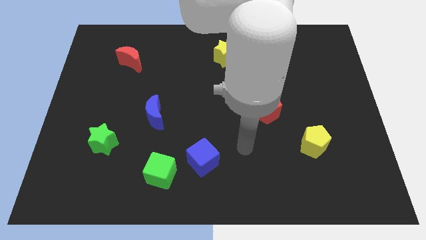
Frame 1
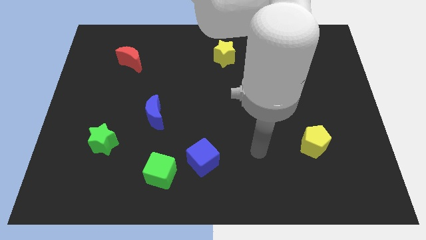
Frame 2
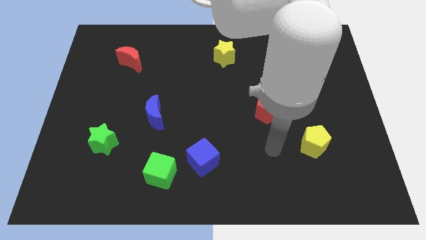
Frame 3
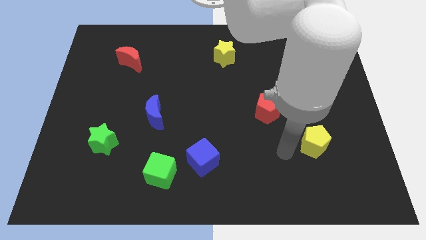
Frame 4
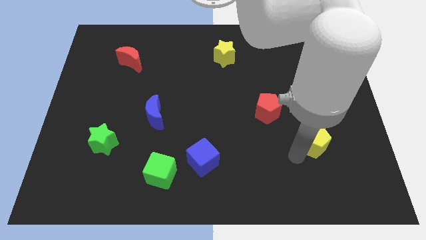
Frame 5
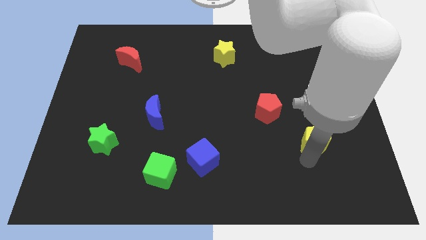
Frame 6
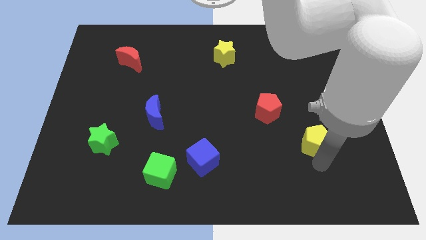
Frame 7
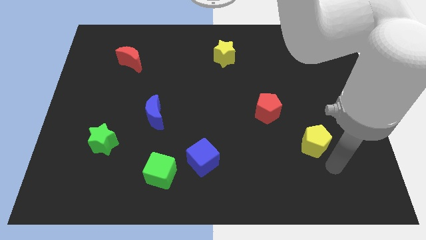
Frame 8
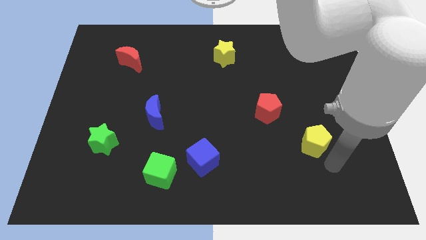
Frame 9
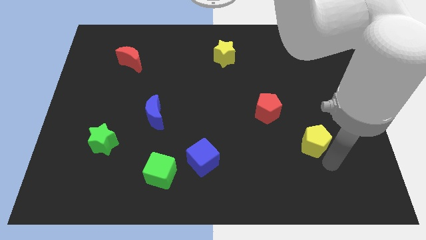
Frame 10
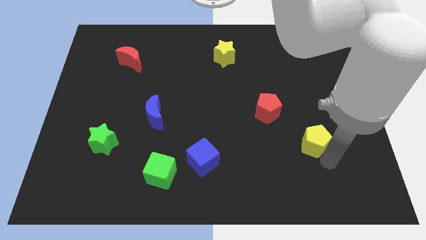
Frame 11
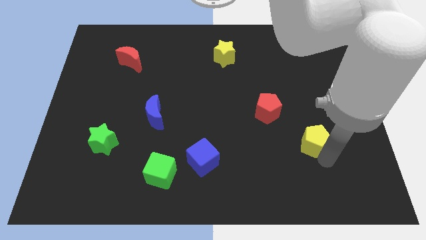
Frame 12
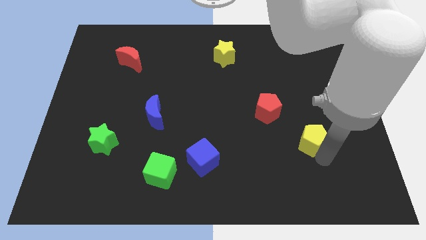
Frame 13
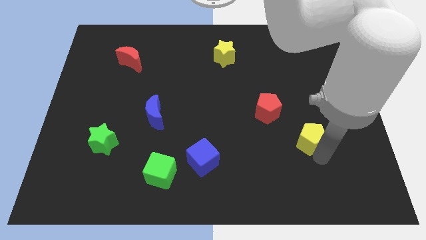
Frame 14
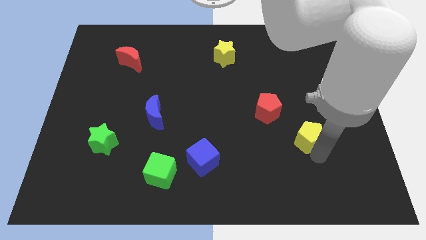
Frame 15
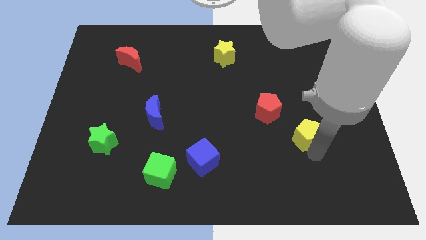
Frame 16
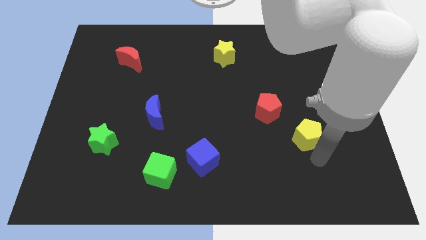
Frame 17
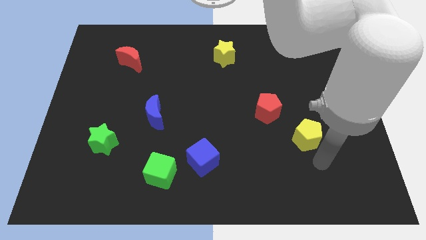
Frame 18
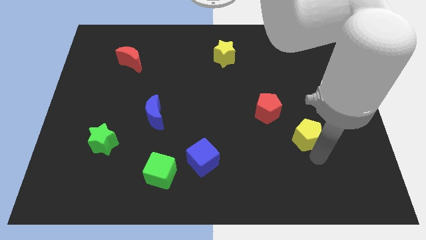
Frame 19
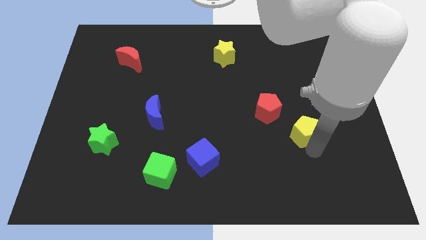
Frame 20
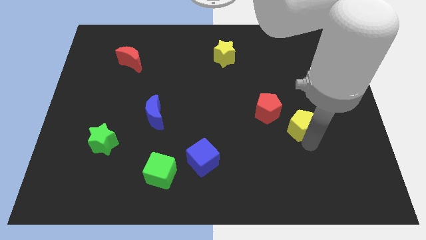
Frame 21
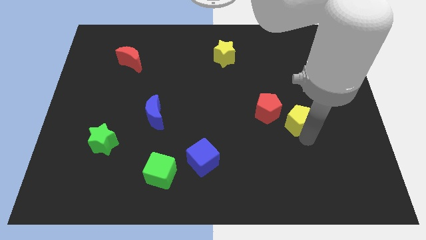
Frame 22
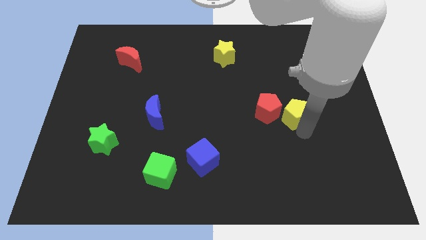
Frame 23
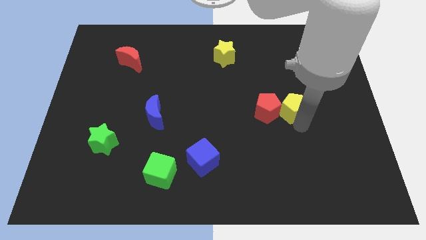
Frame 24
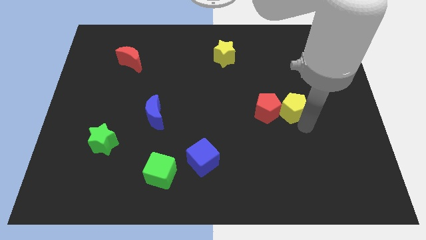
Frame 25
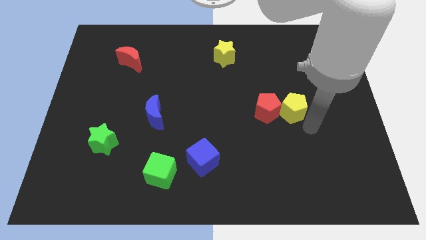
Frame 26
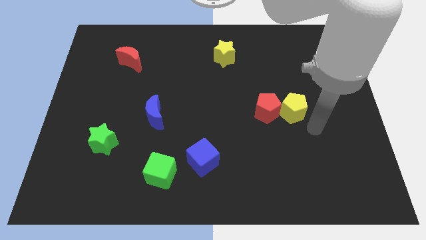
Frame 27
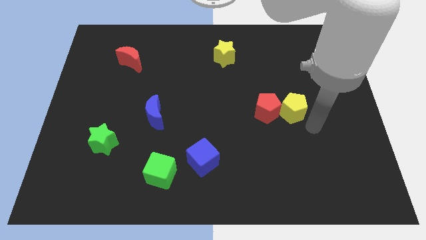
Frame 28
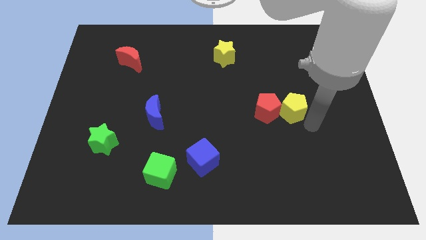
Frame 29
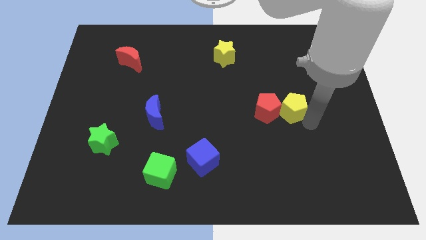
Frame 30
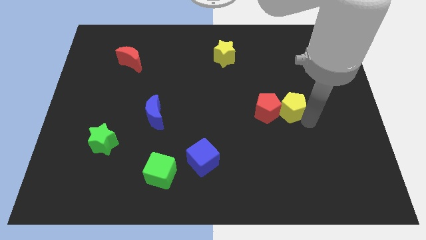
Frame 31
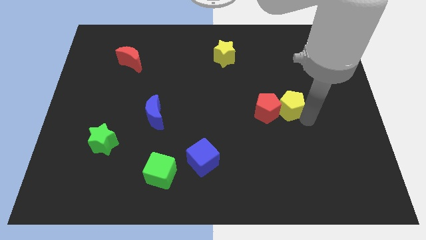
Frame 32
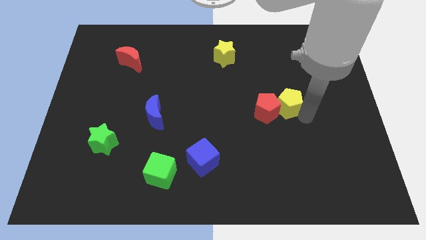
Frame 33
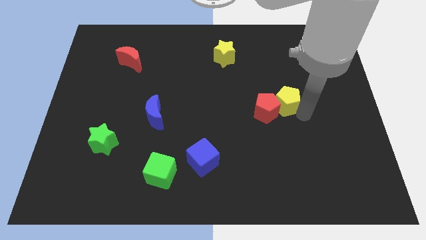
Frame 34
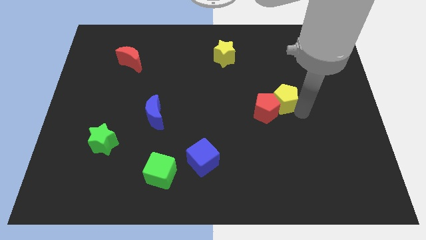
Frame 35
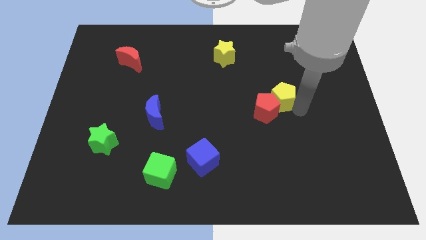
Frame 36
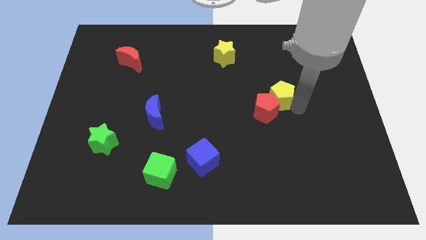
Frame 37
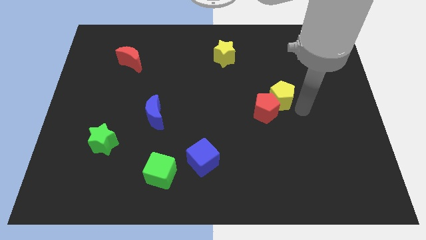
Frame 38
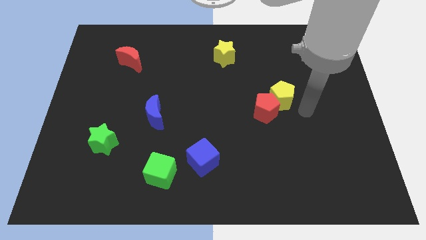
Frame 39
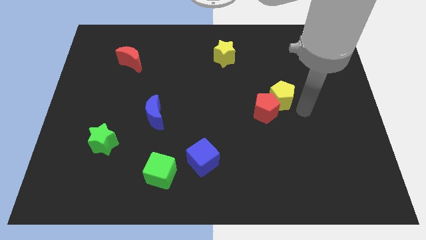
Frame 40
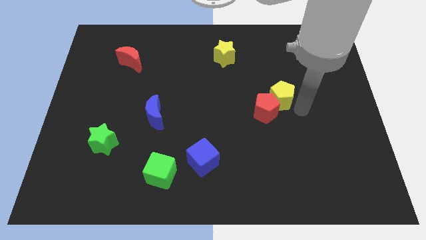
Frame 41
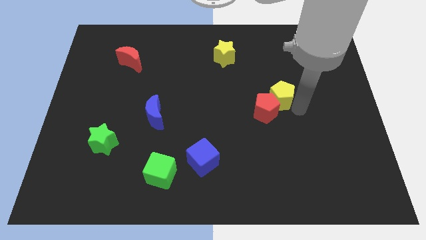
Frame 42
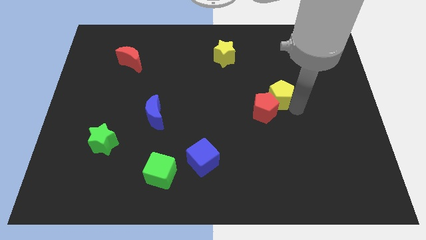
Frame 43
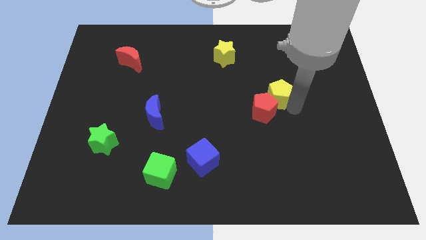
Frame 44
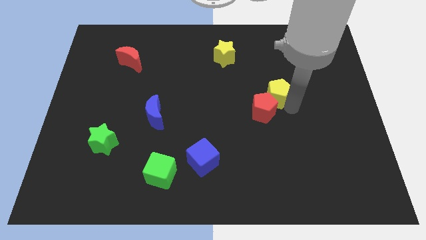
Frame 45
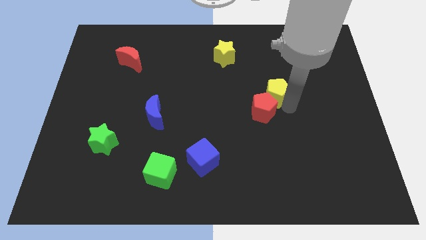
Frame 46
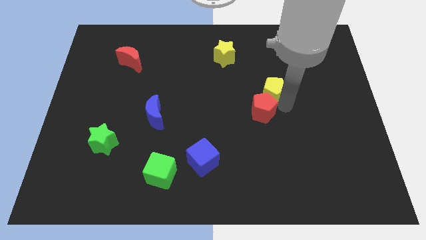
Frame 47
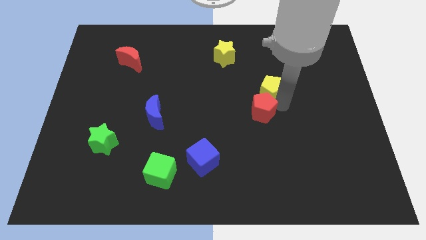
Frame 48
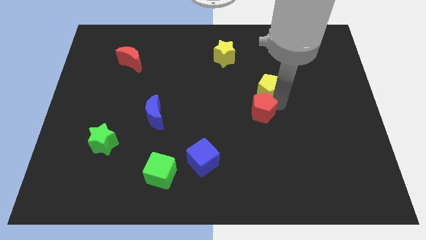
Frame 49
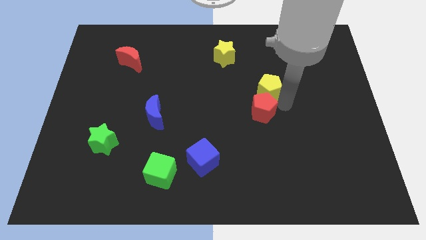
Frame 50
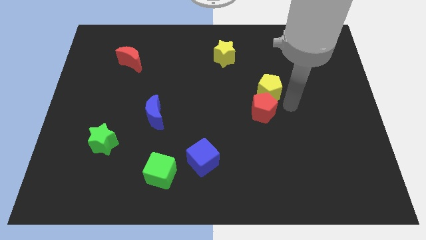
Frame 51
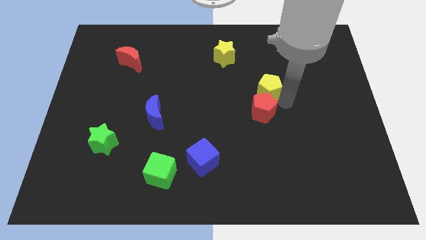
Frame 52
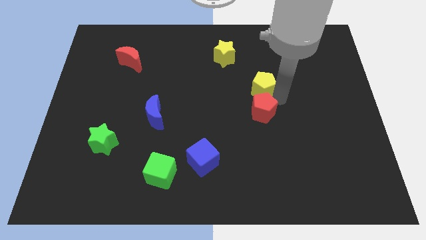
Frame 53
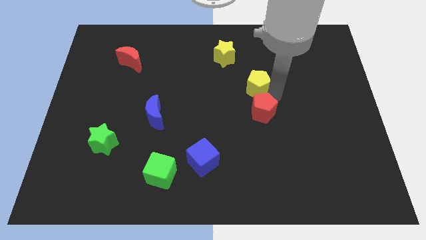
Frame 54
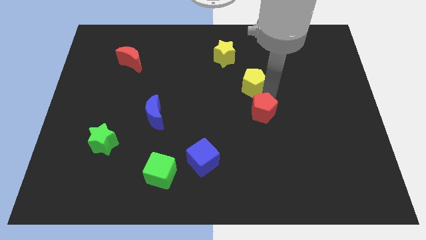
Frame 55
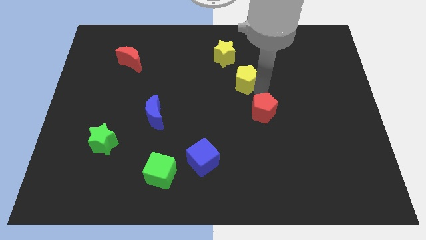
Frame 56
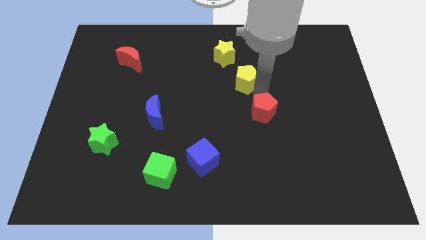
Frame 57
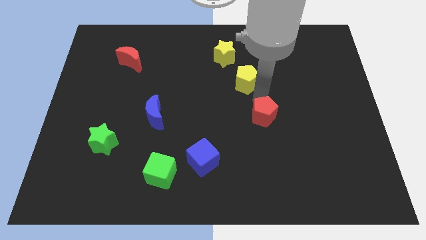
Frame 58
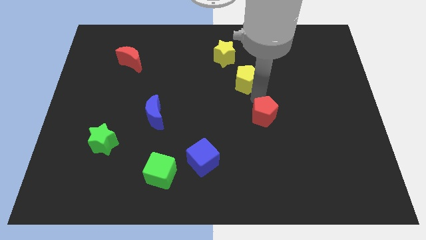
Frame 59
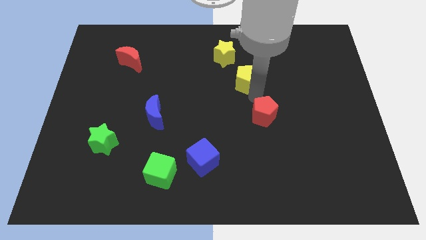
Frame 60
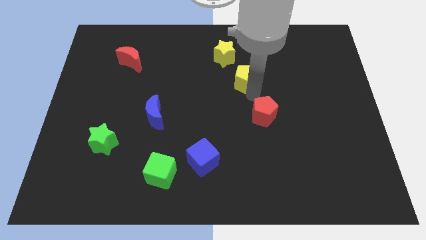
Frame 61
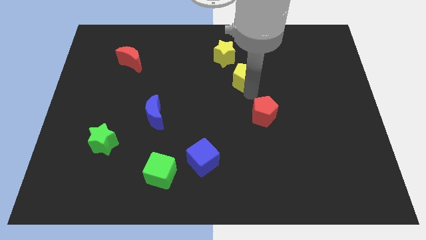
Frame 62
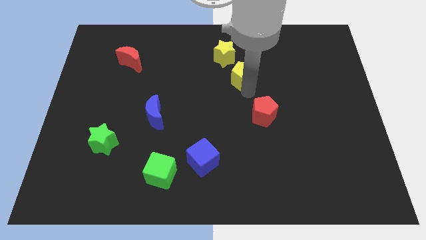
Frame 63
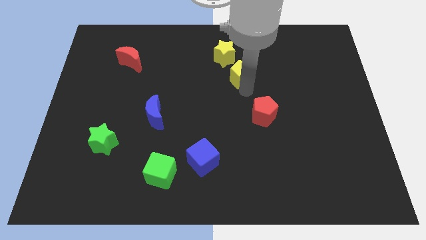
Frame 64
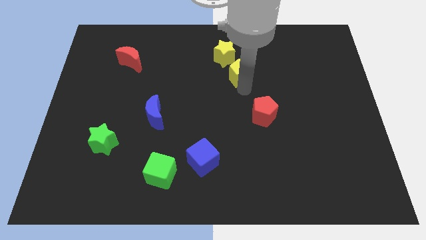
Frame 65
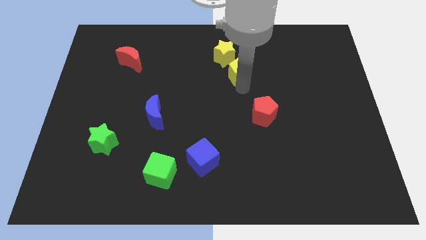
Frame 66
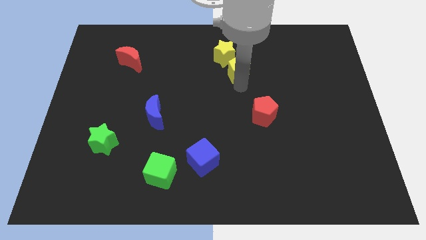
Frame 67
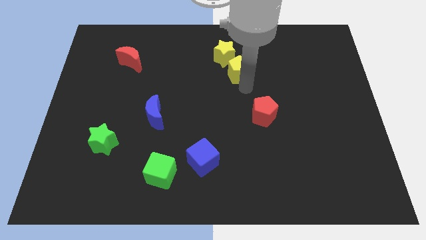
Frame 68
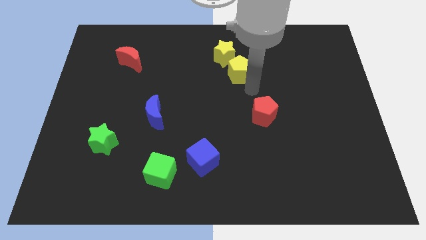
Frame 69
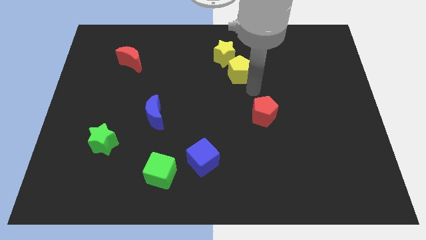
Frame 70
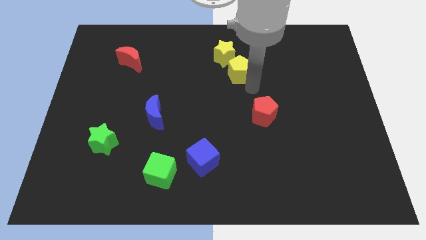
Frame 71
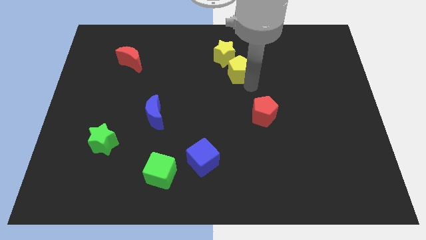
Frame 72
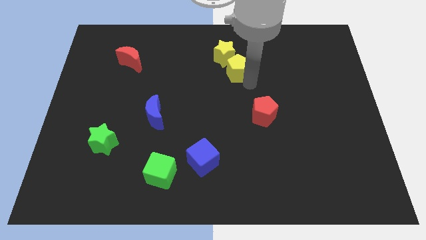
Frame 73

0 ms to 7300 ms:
put the yellow pentagon towards the yellow star
